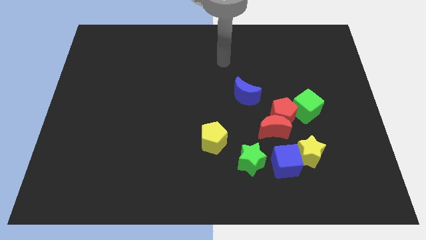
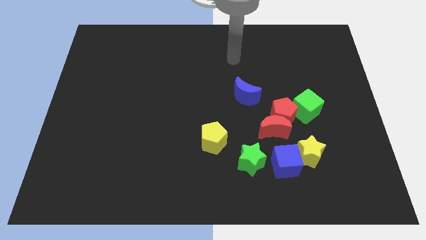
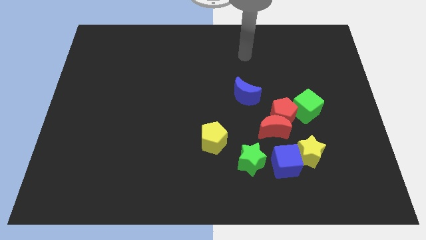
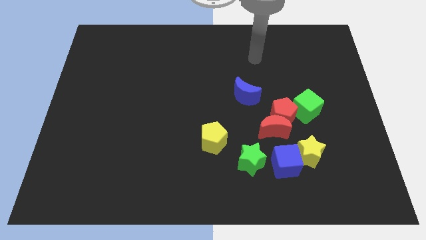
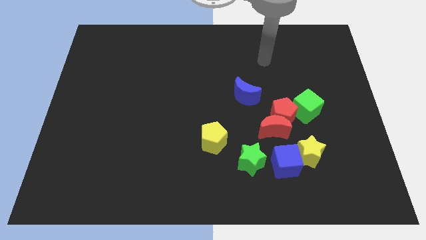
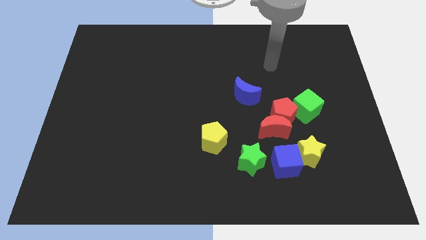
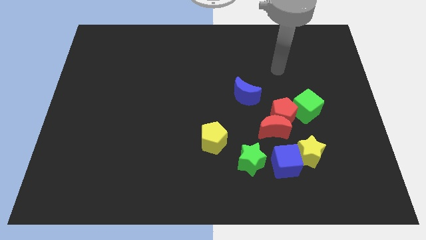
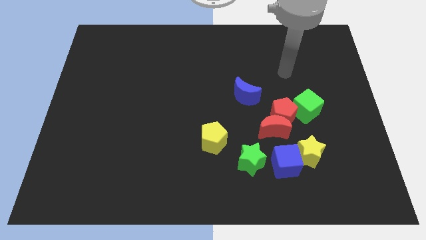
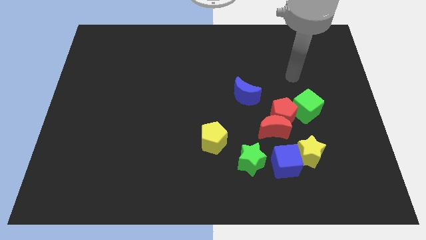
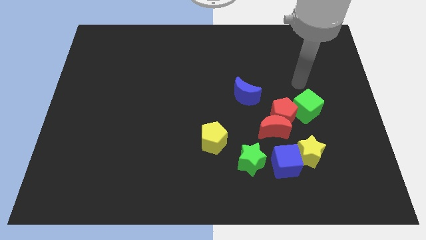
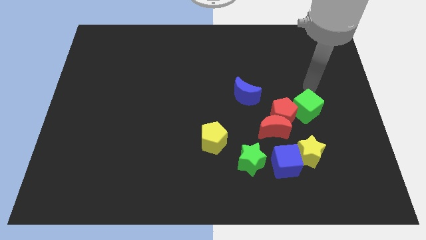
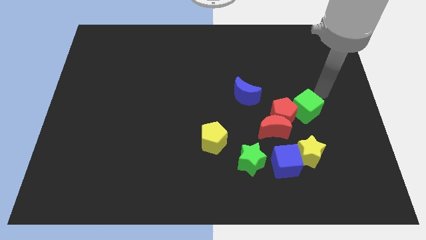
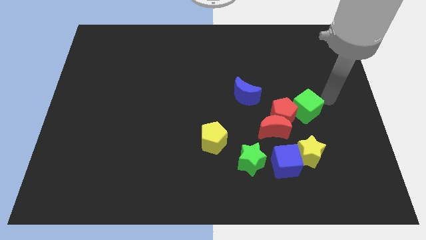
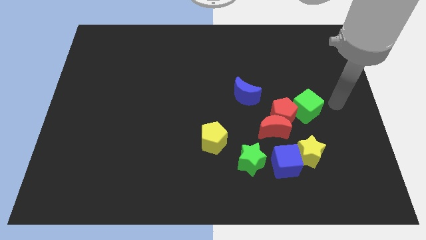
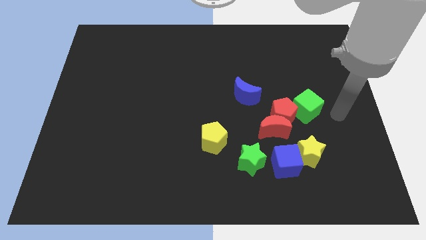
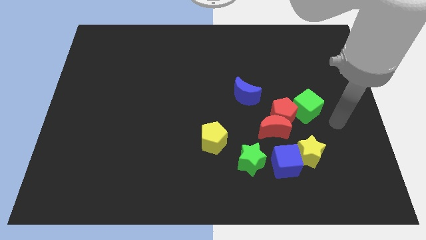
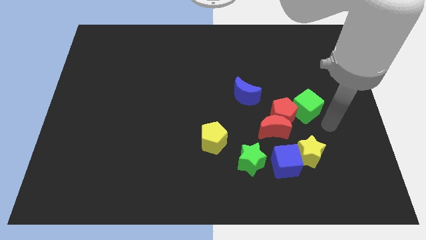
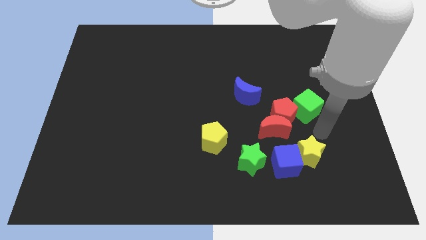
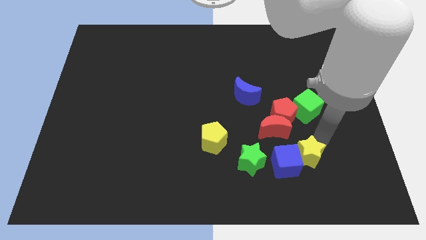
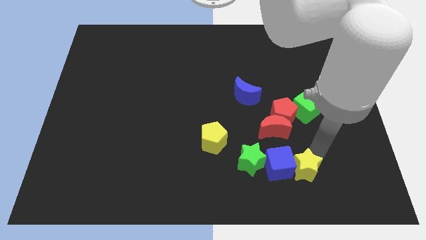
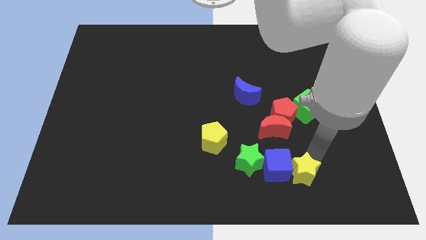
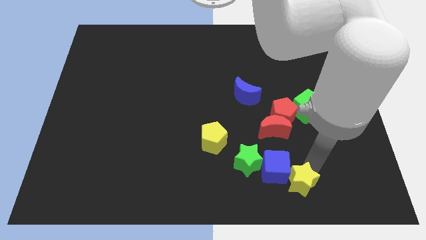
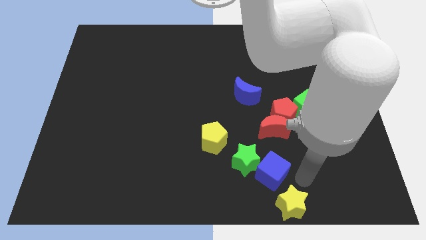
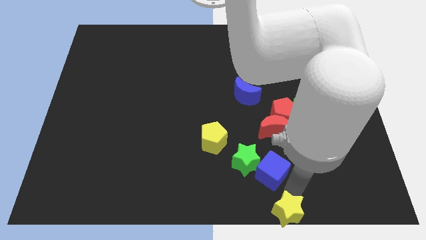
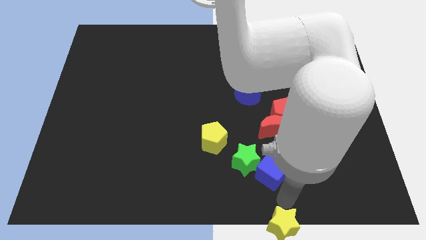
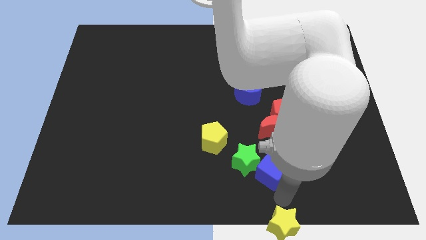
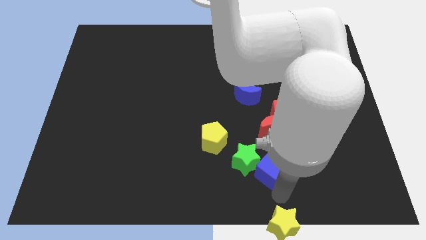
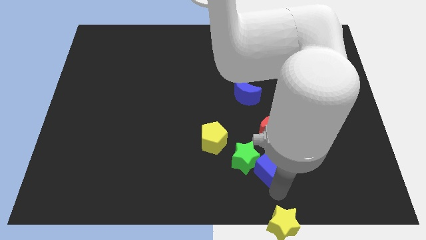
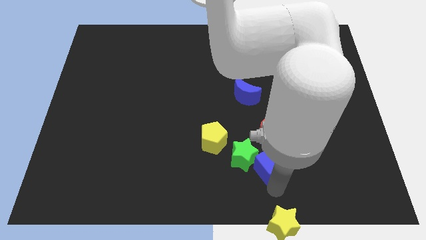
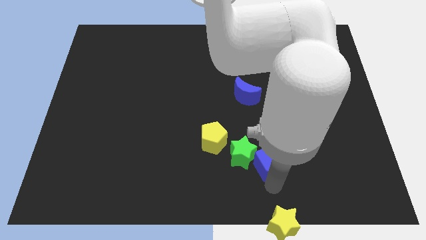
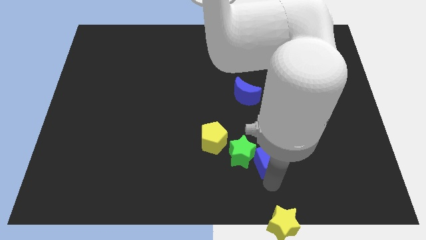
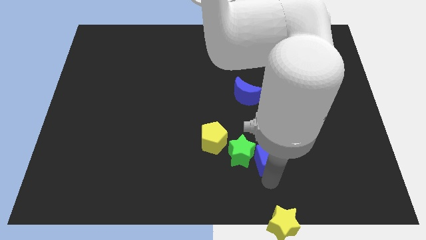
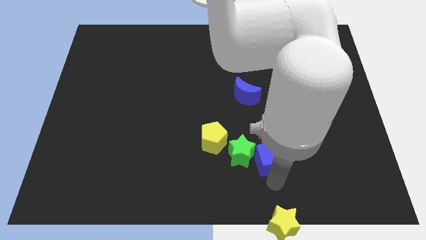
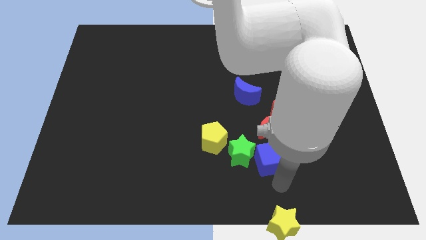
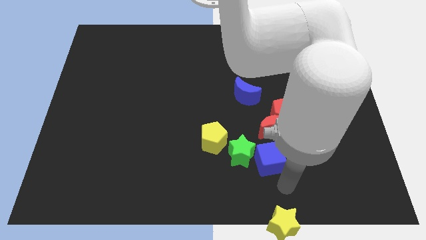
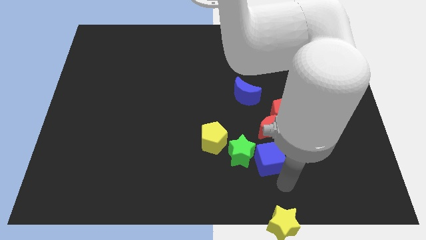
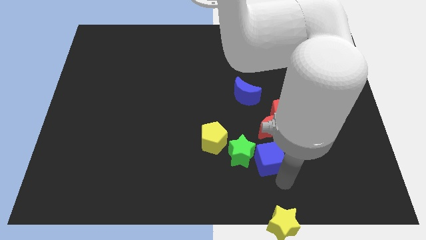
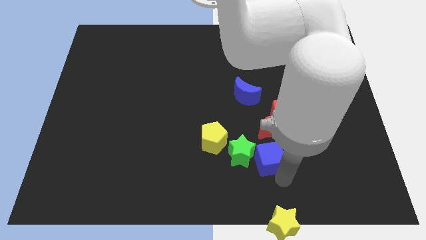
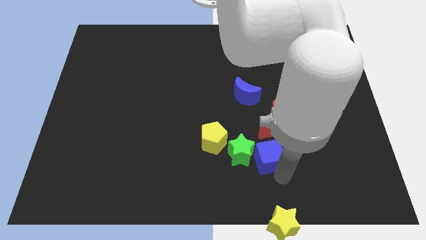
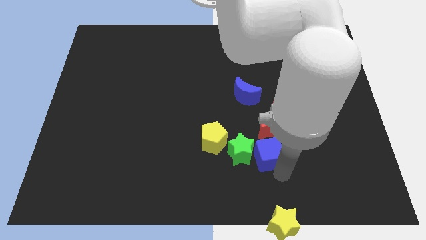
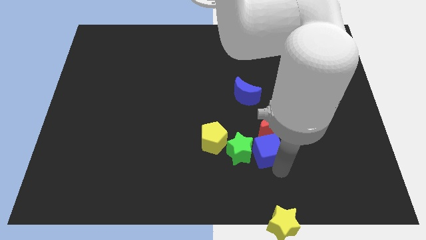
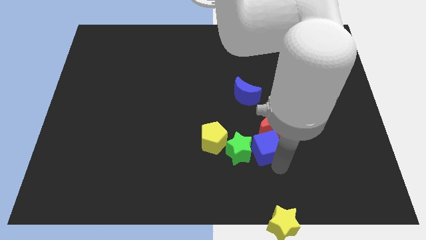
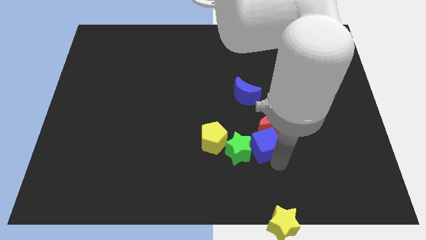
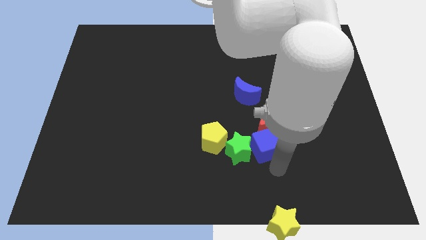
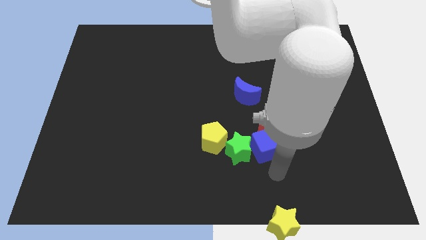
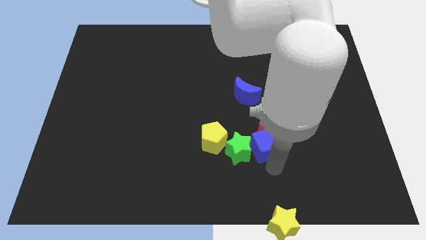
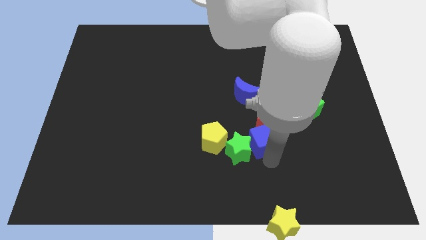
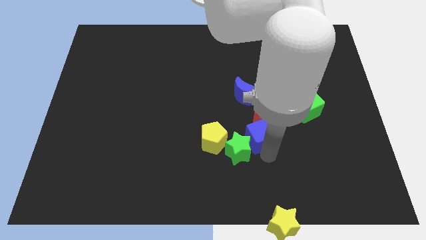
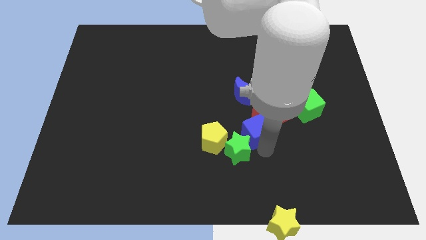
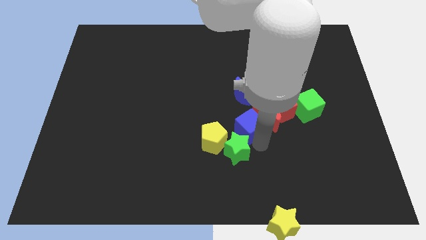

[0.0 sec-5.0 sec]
push the blue cube upwards a bit

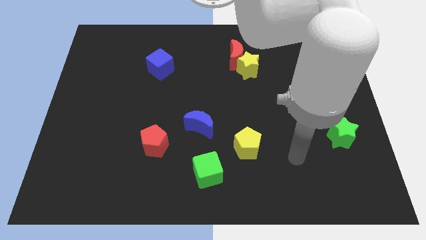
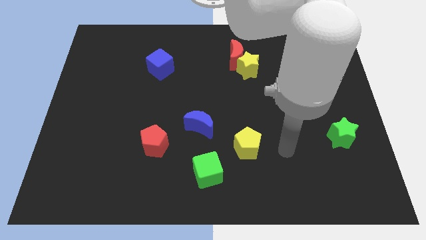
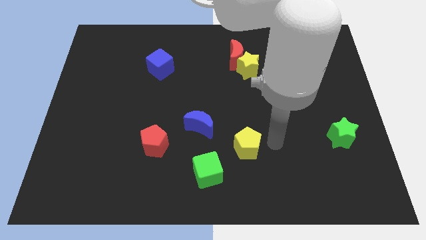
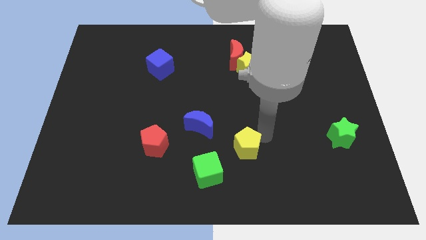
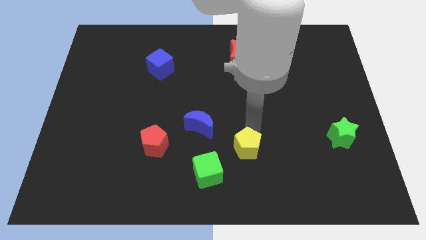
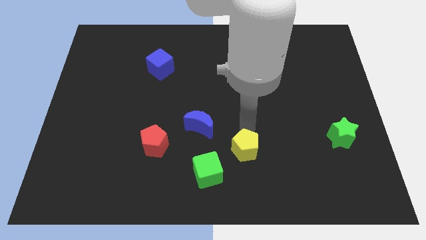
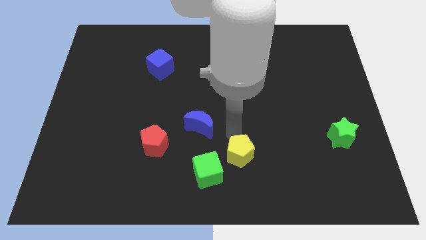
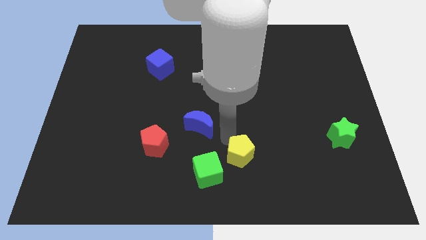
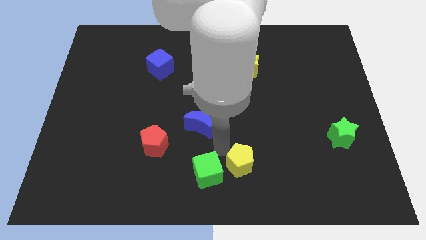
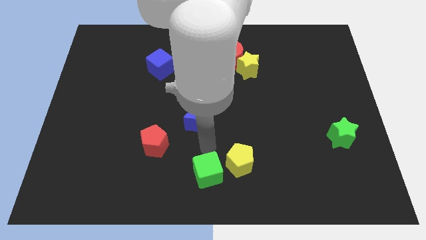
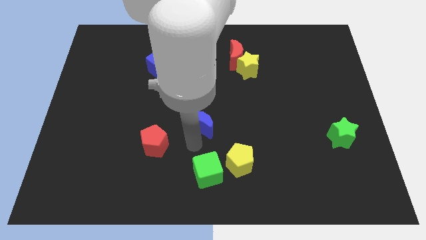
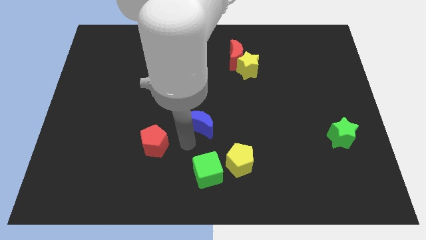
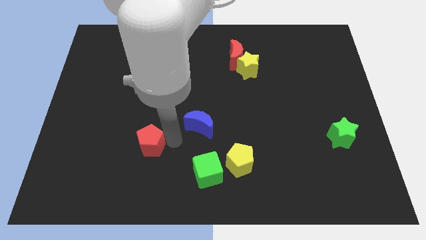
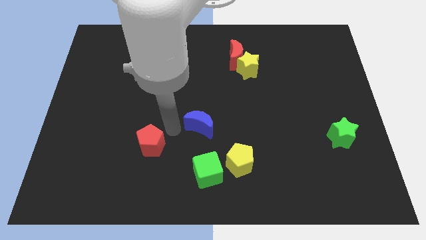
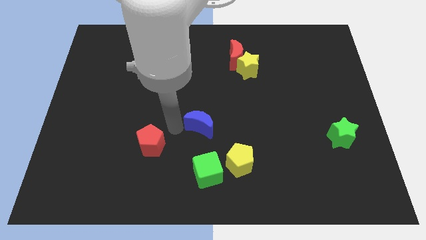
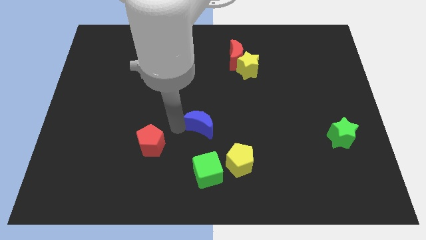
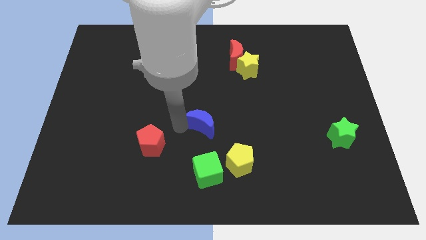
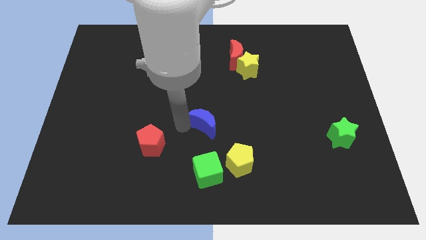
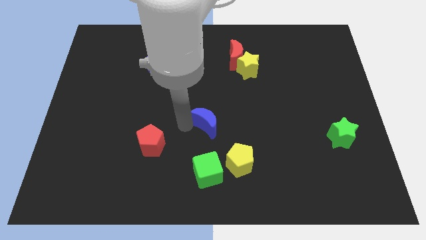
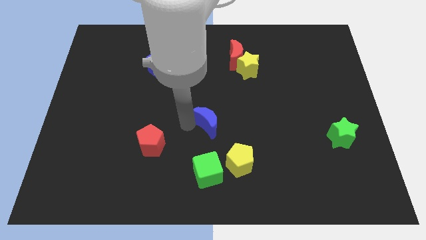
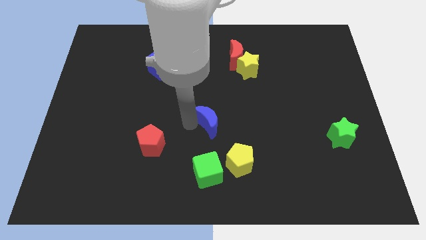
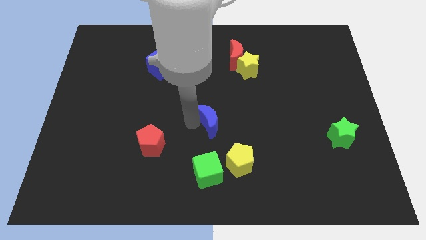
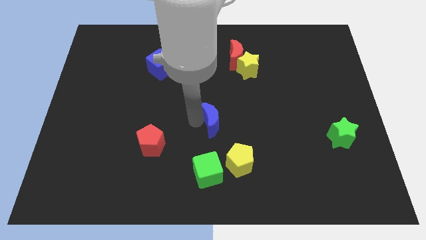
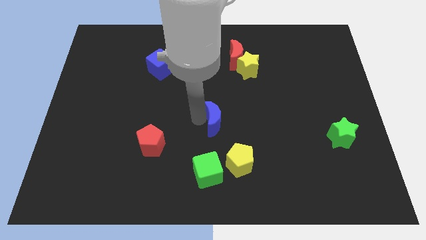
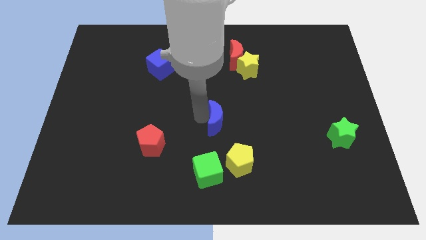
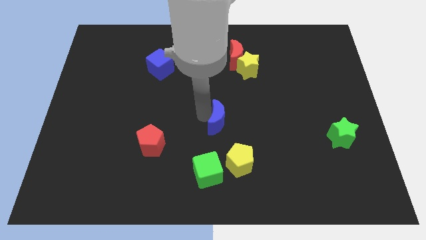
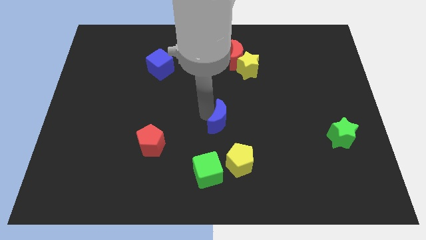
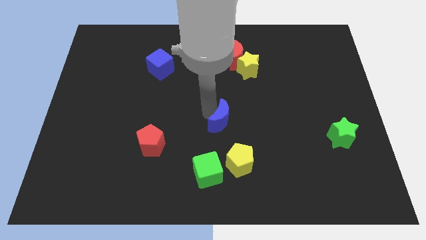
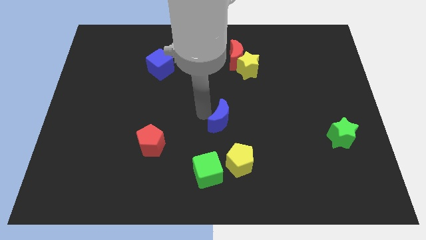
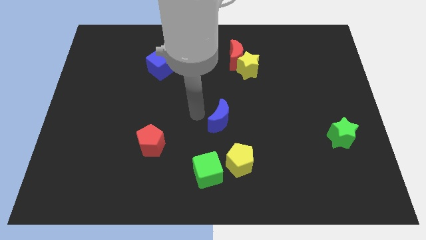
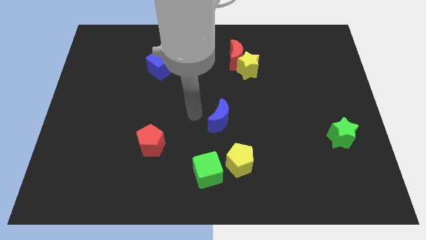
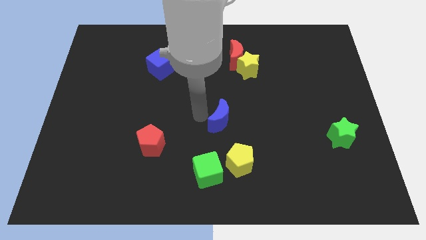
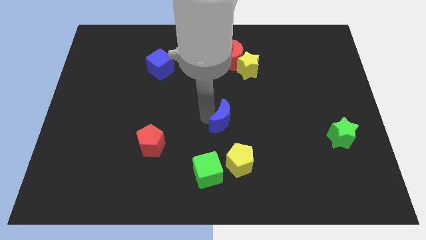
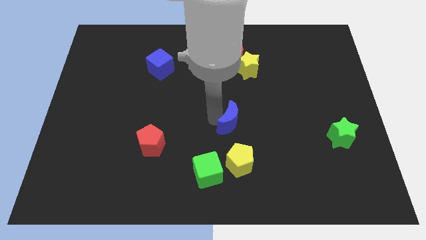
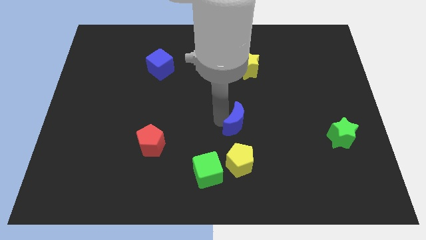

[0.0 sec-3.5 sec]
slightly move the blue moon to the right
